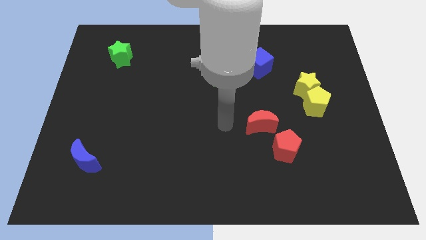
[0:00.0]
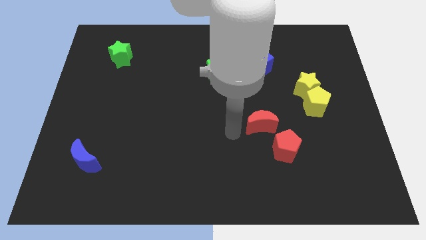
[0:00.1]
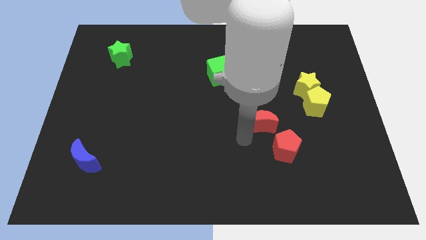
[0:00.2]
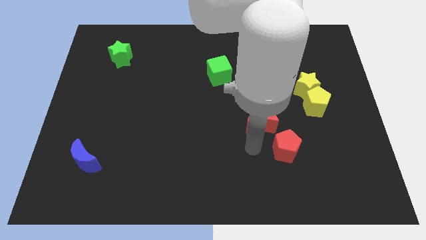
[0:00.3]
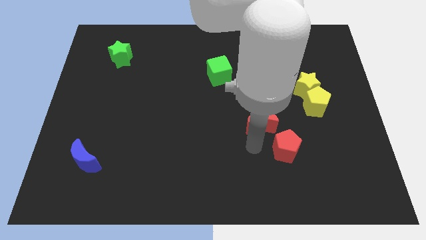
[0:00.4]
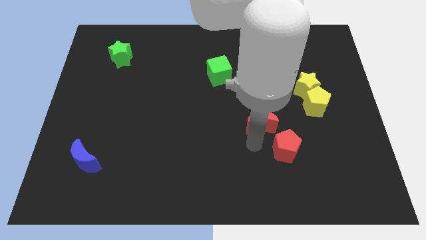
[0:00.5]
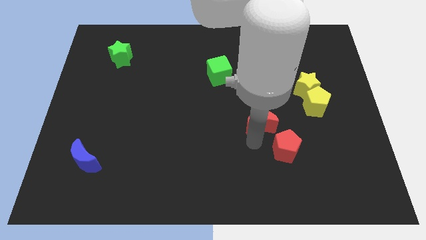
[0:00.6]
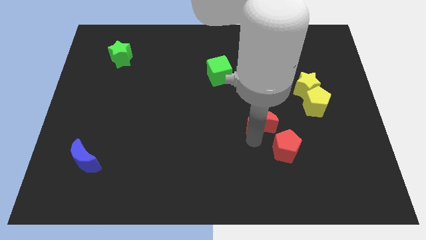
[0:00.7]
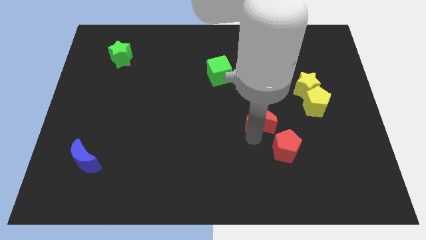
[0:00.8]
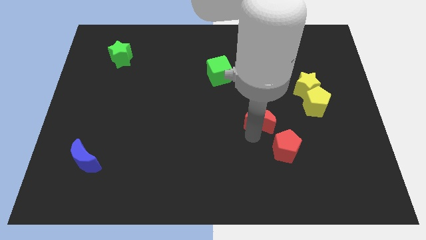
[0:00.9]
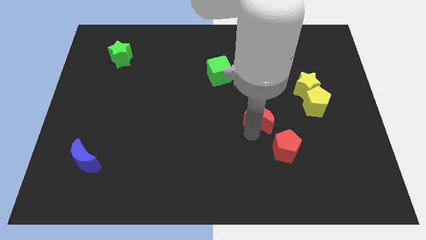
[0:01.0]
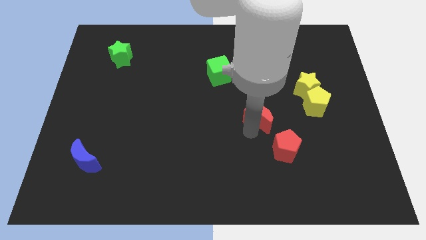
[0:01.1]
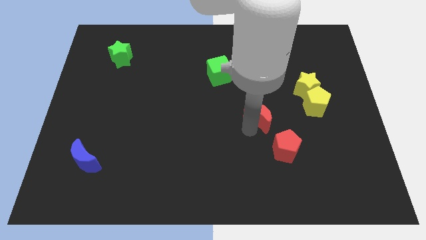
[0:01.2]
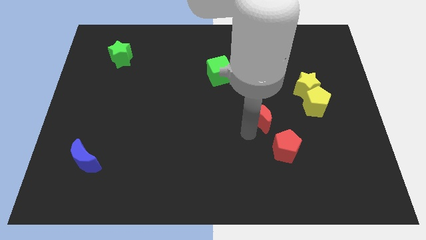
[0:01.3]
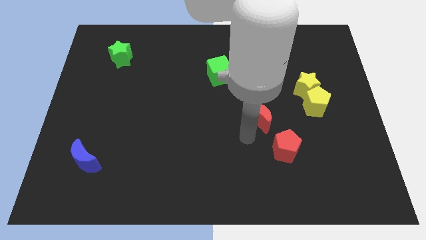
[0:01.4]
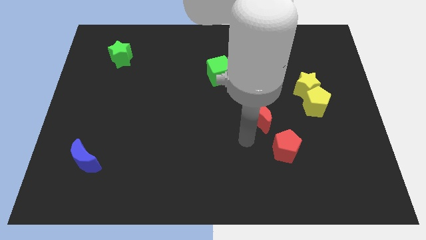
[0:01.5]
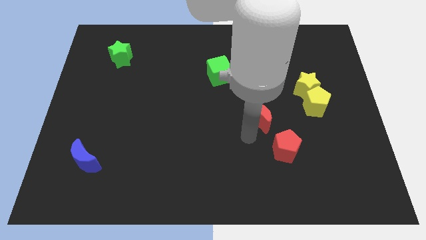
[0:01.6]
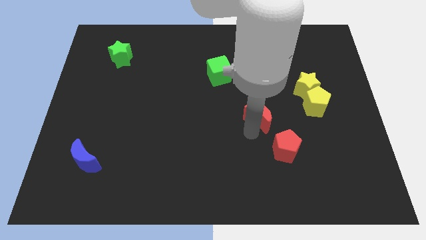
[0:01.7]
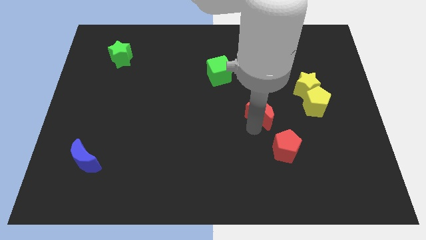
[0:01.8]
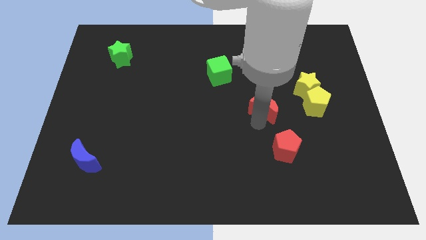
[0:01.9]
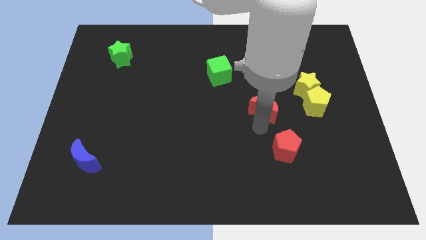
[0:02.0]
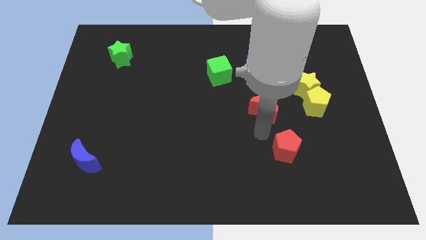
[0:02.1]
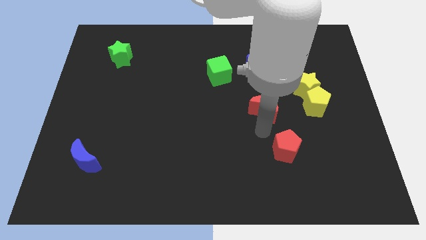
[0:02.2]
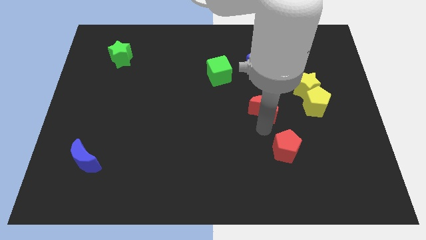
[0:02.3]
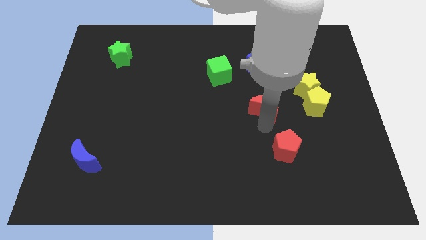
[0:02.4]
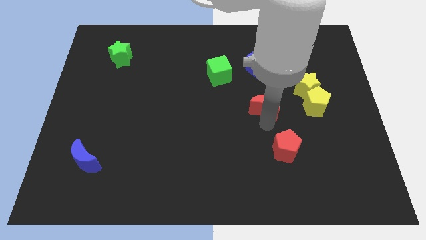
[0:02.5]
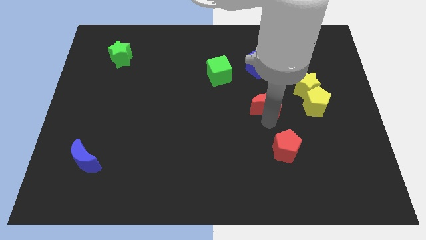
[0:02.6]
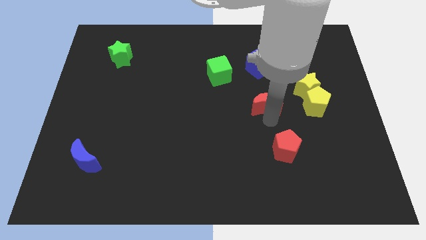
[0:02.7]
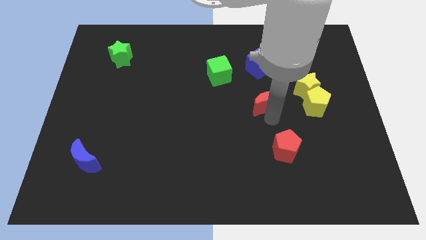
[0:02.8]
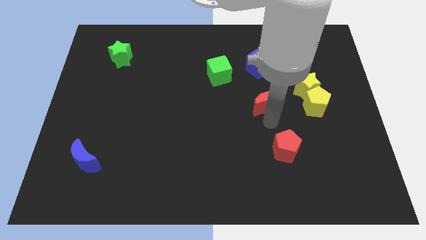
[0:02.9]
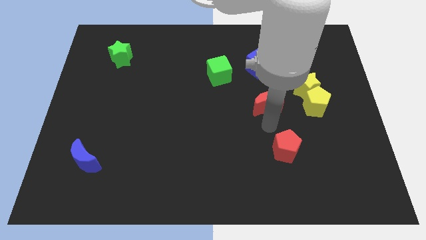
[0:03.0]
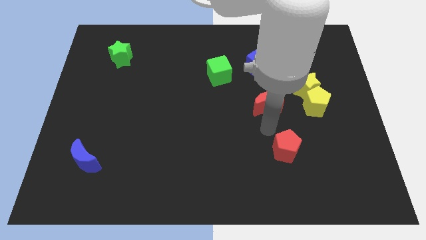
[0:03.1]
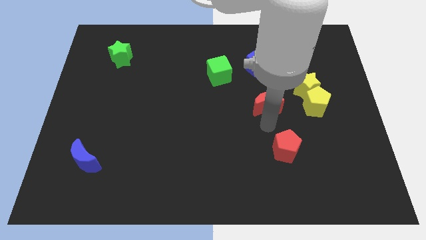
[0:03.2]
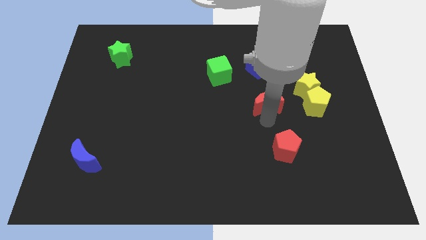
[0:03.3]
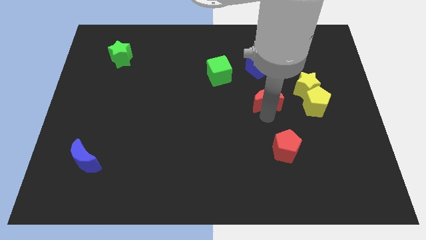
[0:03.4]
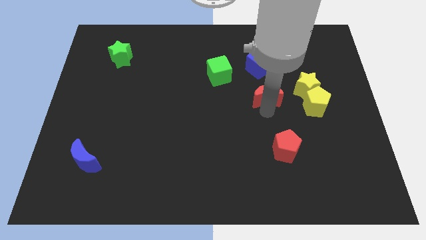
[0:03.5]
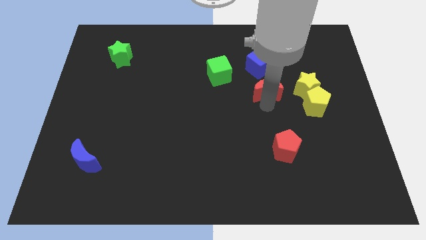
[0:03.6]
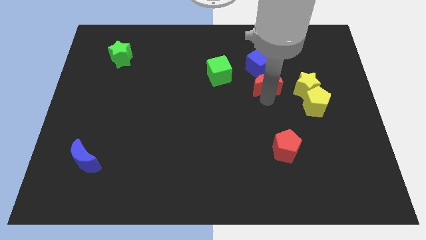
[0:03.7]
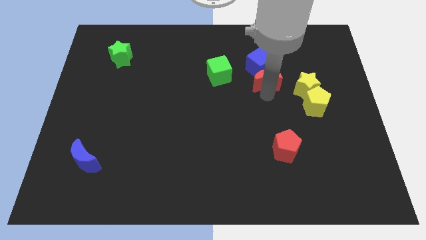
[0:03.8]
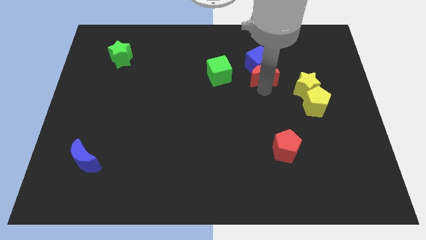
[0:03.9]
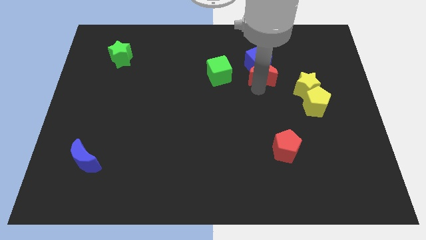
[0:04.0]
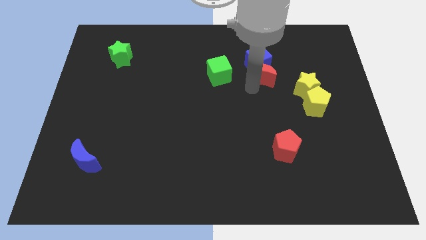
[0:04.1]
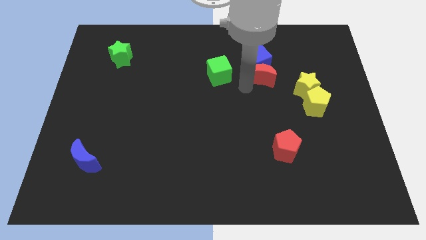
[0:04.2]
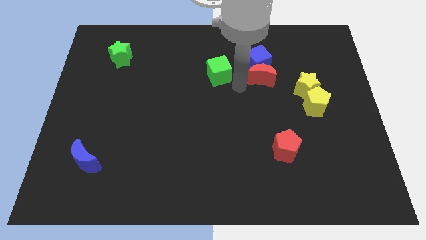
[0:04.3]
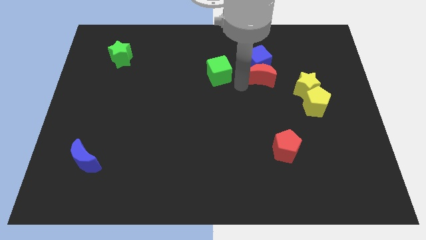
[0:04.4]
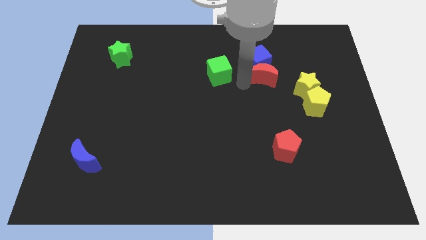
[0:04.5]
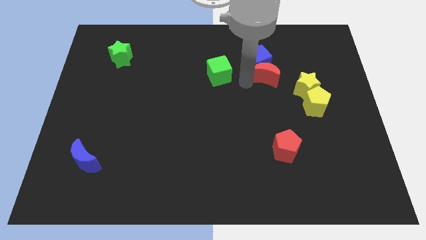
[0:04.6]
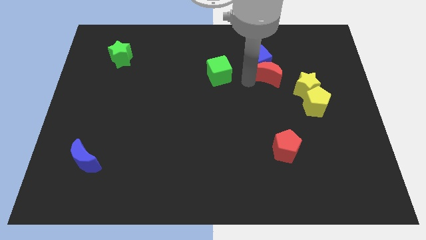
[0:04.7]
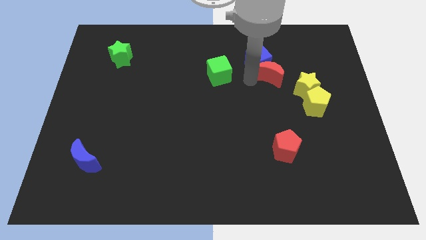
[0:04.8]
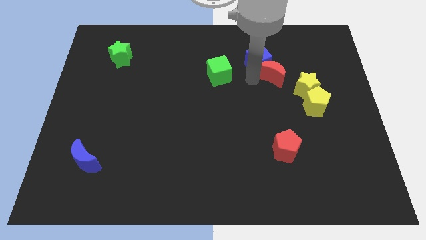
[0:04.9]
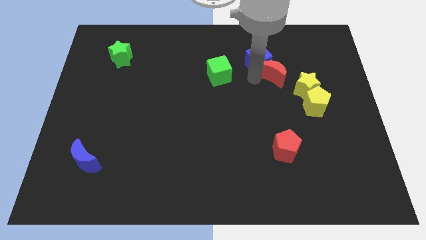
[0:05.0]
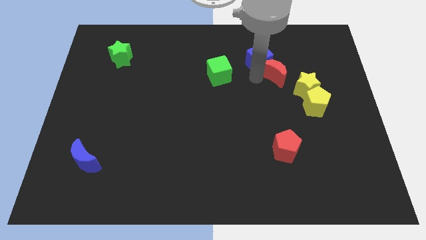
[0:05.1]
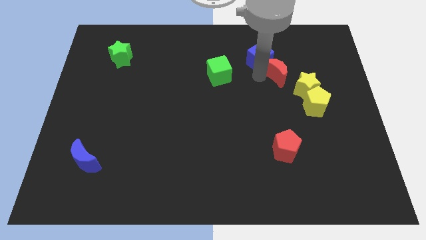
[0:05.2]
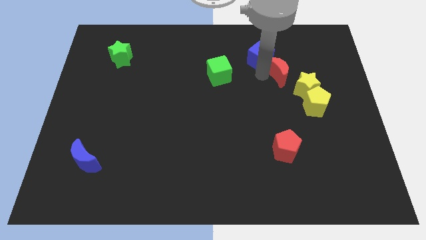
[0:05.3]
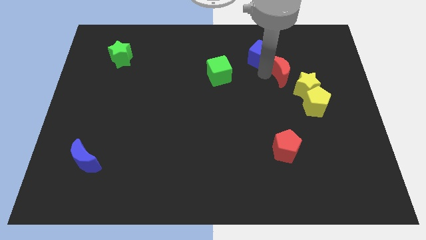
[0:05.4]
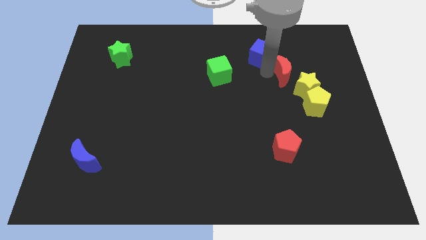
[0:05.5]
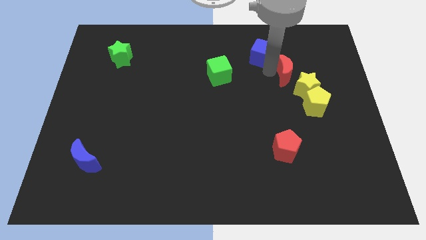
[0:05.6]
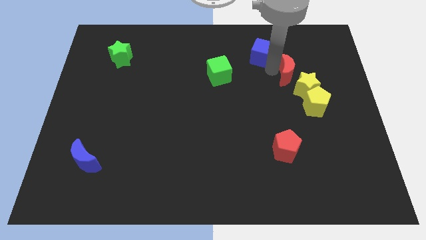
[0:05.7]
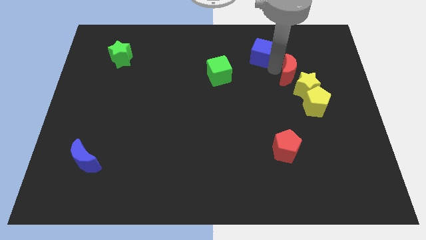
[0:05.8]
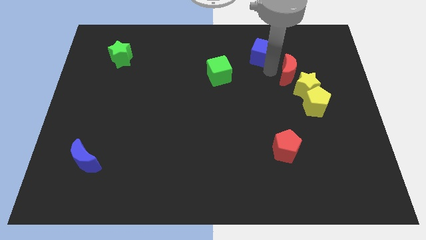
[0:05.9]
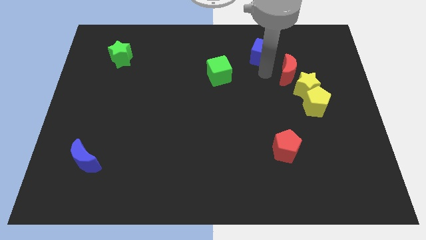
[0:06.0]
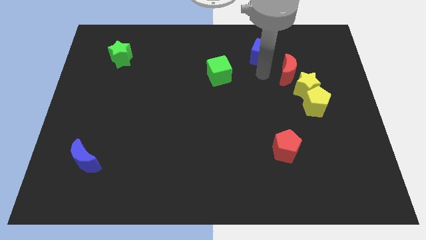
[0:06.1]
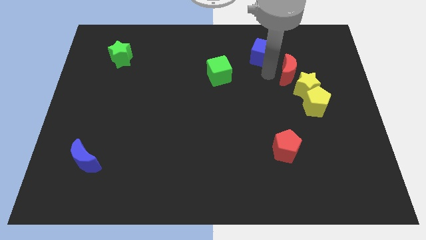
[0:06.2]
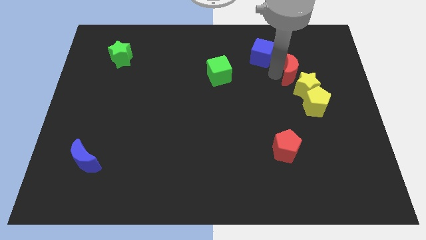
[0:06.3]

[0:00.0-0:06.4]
put the red moon to the top of the yellow pentagon
